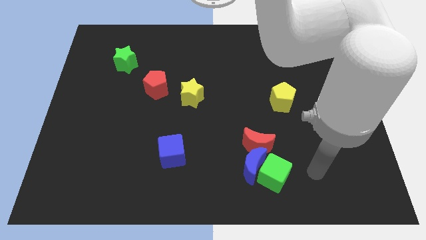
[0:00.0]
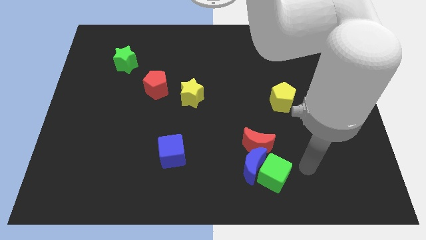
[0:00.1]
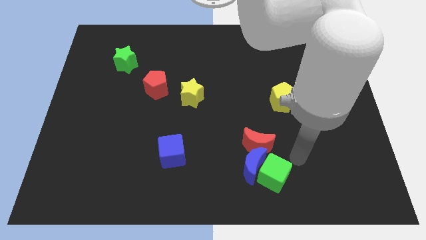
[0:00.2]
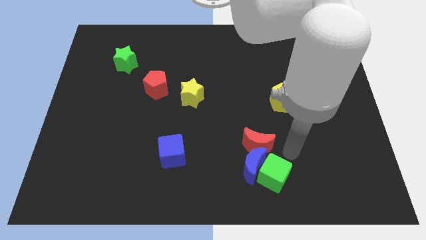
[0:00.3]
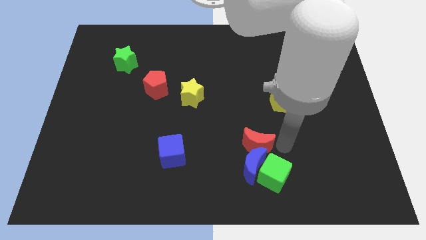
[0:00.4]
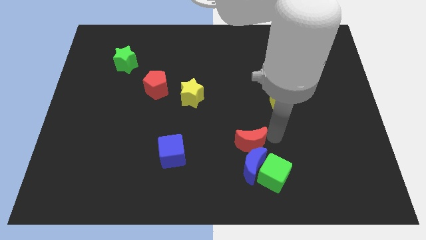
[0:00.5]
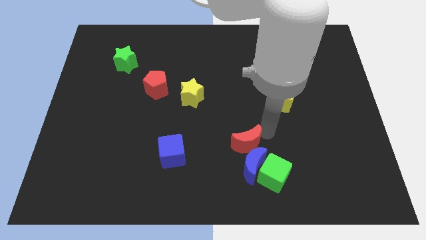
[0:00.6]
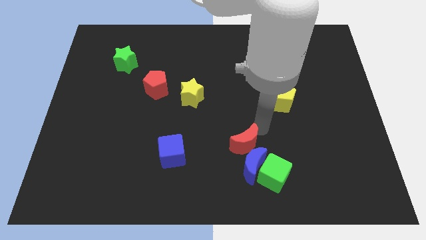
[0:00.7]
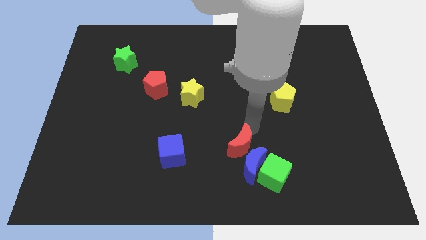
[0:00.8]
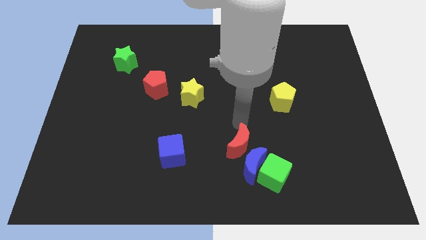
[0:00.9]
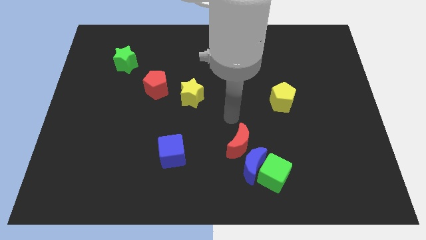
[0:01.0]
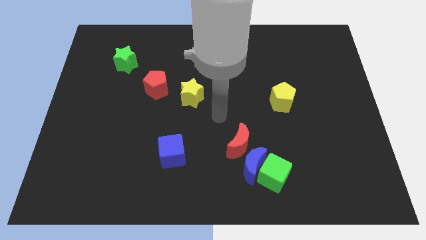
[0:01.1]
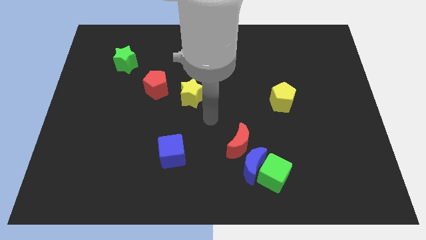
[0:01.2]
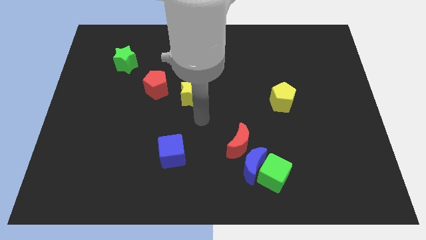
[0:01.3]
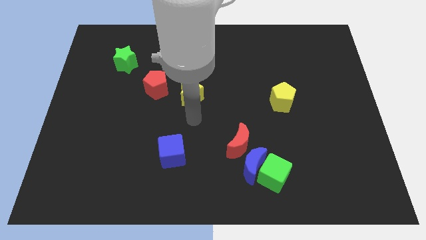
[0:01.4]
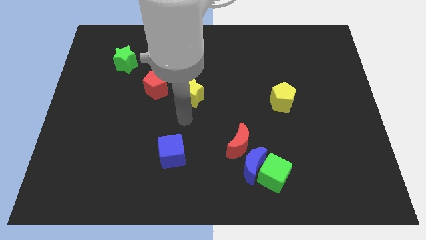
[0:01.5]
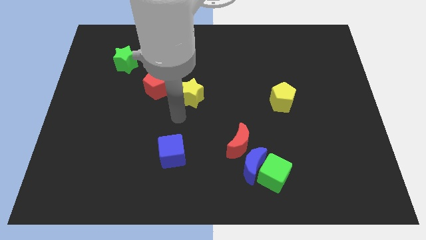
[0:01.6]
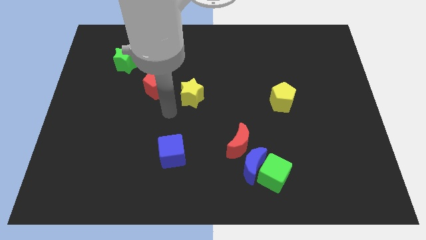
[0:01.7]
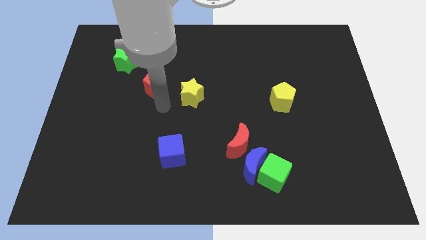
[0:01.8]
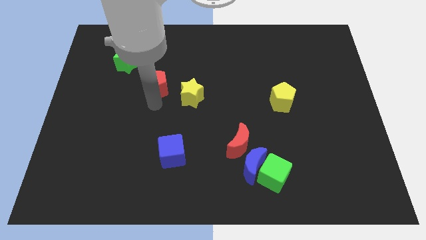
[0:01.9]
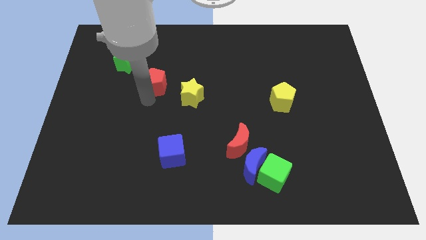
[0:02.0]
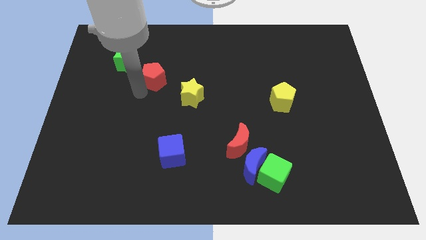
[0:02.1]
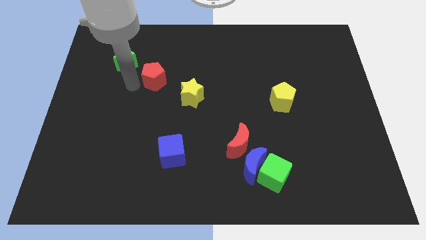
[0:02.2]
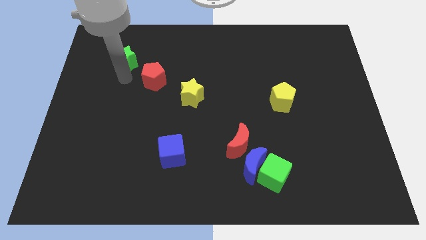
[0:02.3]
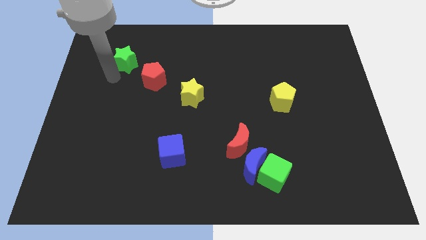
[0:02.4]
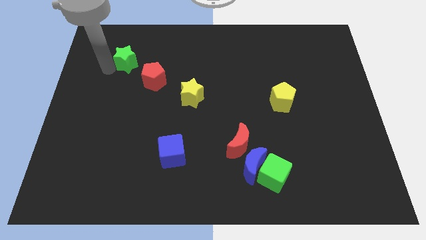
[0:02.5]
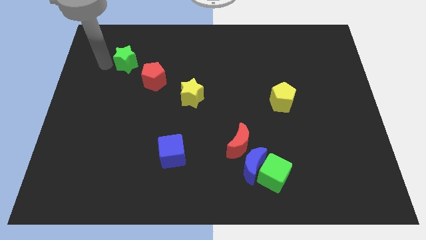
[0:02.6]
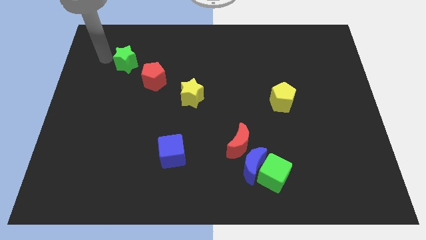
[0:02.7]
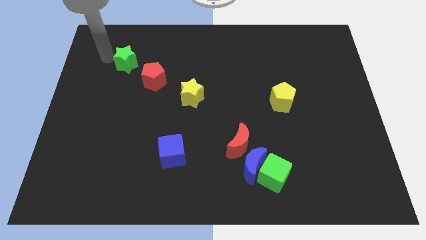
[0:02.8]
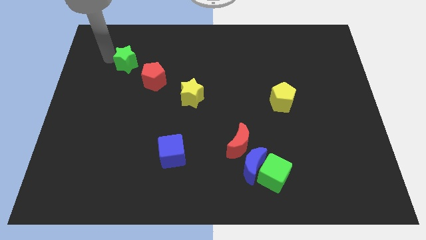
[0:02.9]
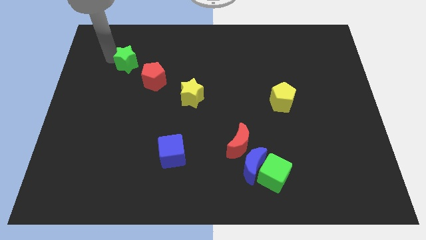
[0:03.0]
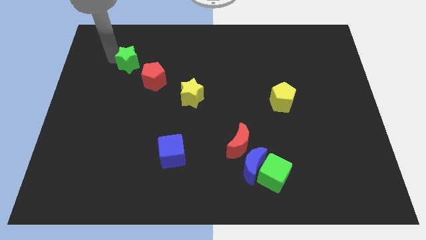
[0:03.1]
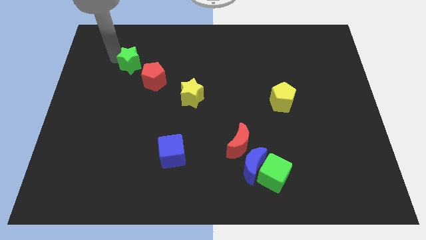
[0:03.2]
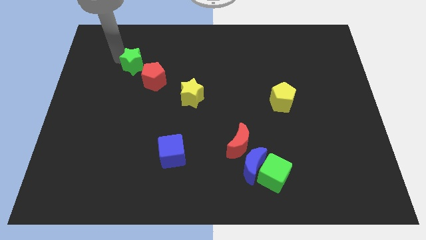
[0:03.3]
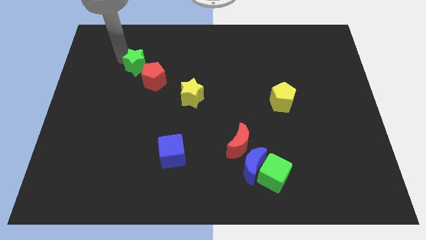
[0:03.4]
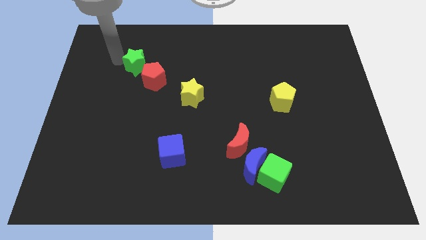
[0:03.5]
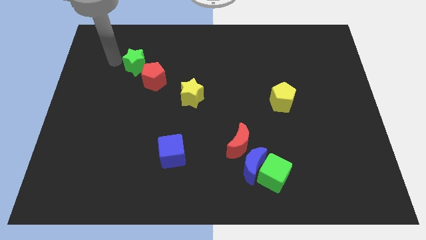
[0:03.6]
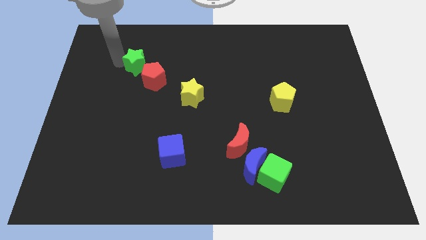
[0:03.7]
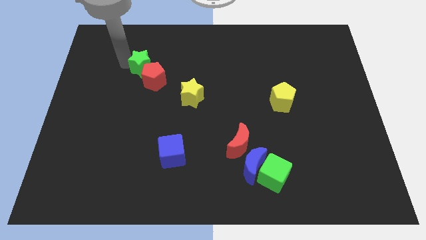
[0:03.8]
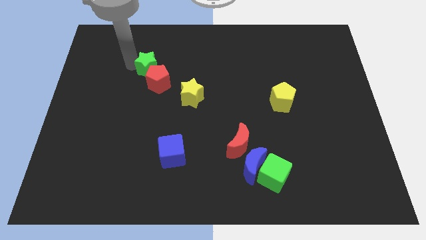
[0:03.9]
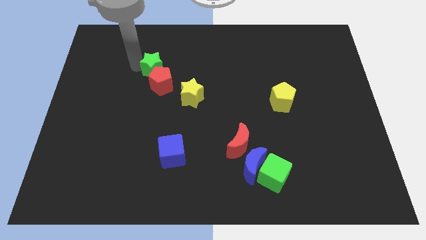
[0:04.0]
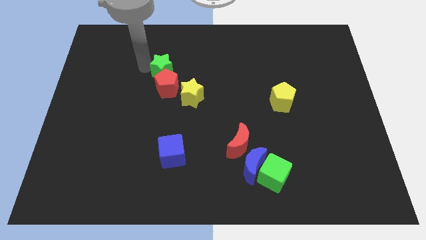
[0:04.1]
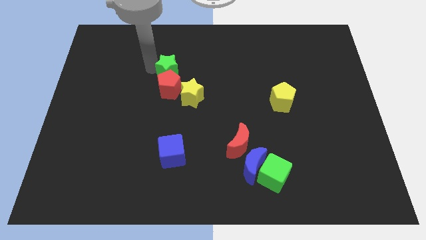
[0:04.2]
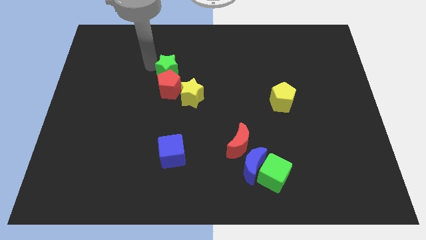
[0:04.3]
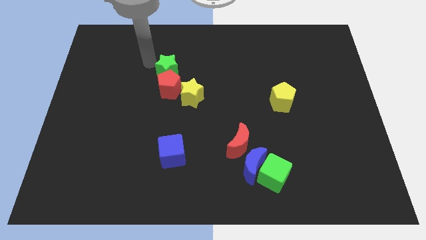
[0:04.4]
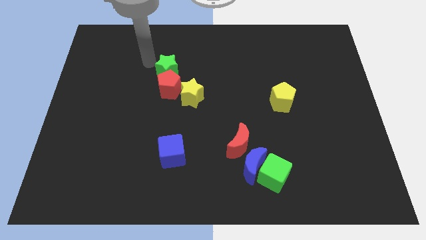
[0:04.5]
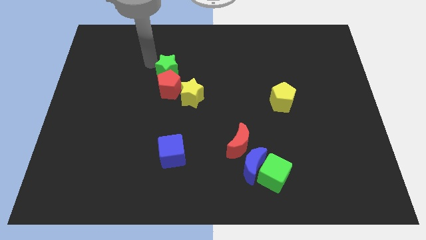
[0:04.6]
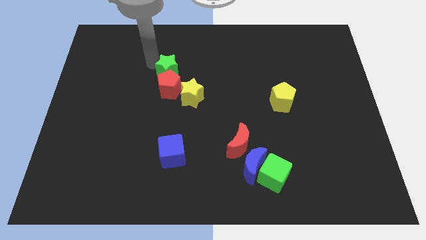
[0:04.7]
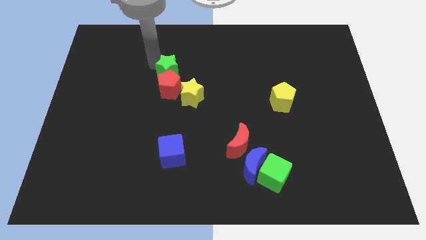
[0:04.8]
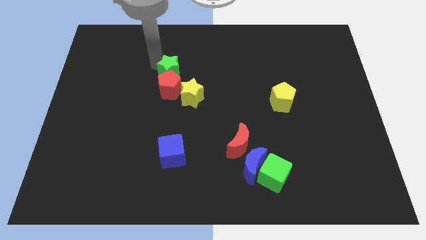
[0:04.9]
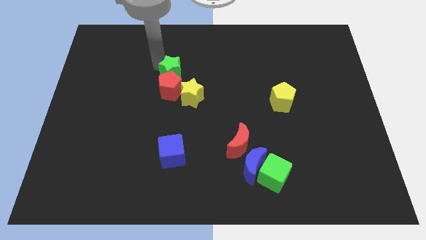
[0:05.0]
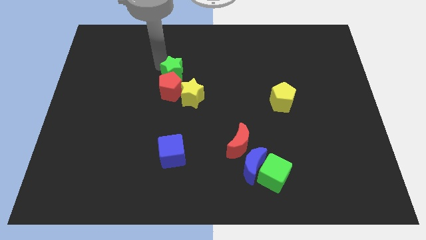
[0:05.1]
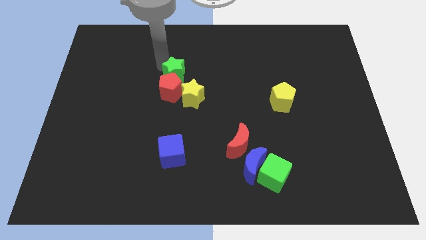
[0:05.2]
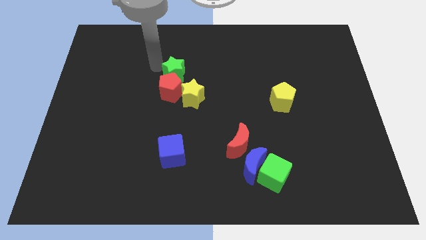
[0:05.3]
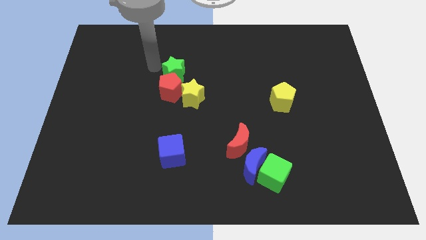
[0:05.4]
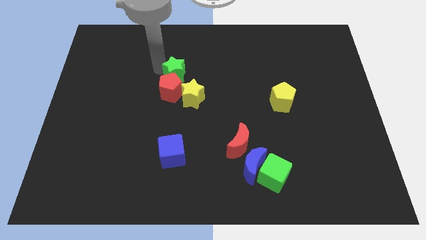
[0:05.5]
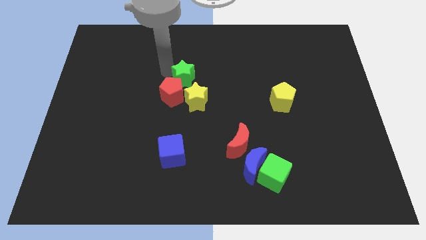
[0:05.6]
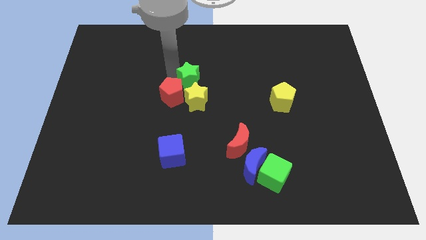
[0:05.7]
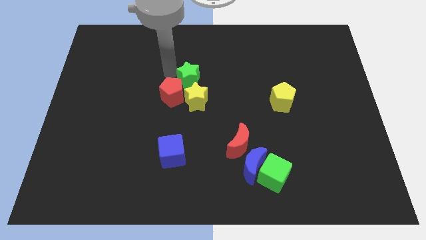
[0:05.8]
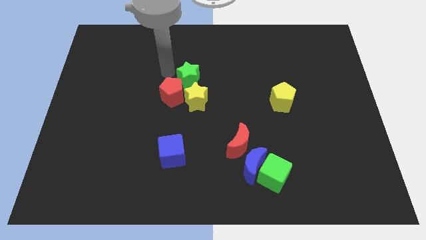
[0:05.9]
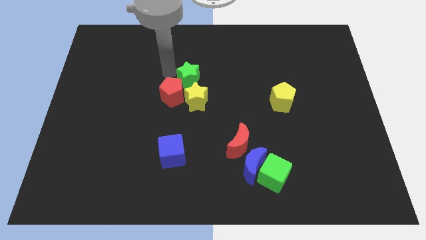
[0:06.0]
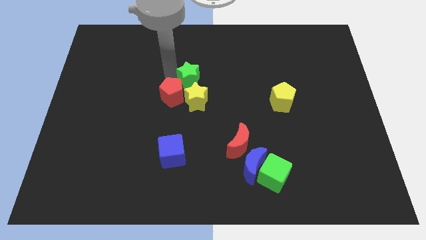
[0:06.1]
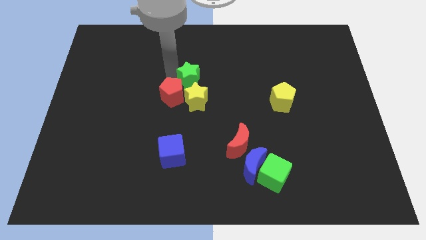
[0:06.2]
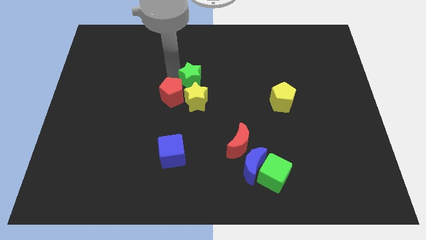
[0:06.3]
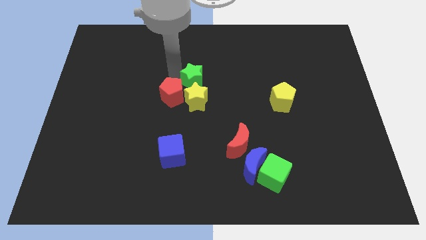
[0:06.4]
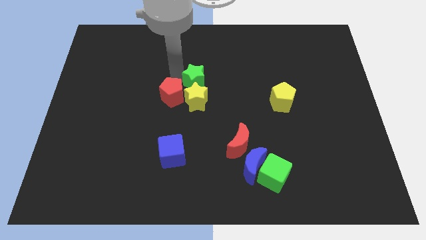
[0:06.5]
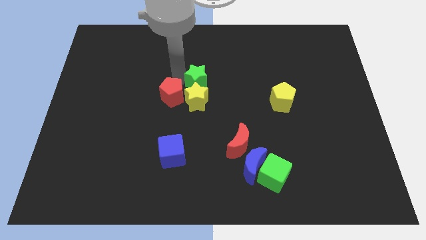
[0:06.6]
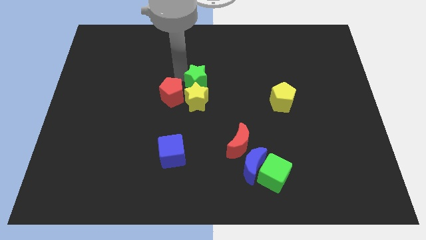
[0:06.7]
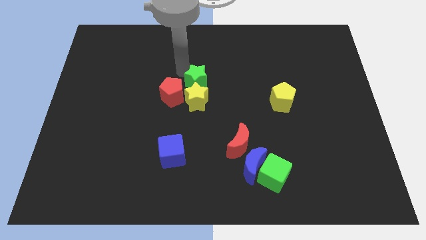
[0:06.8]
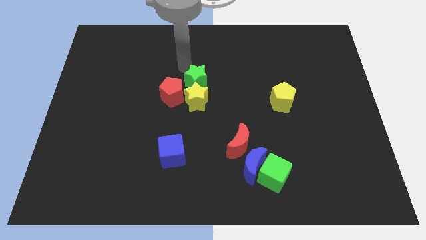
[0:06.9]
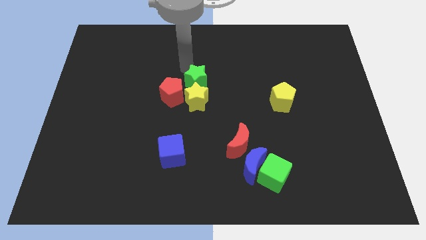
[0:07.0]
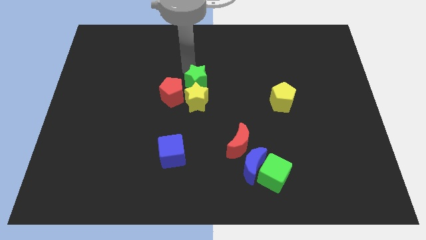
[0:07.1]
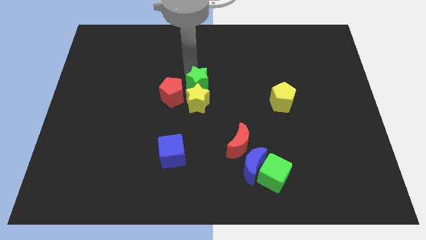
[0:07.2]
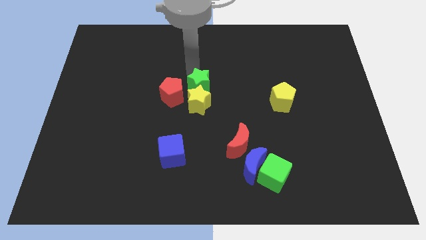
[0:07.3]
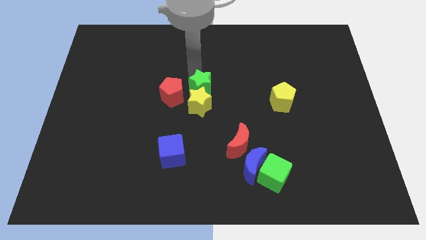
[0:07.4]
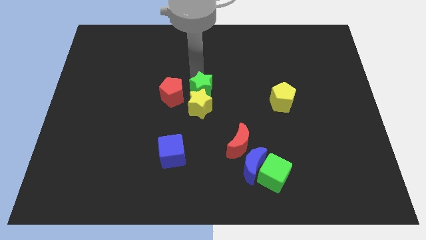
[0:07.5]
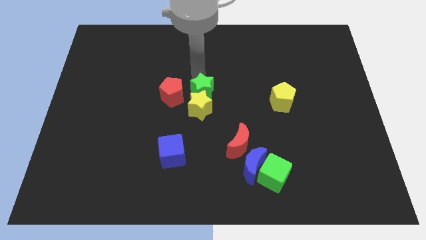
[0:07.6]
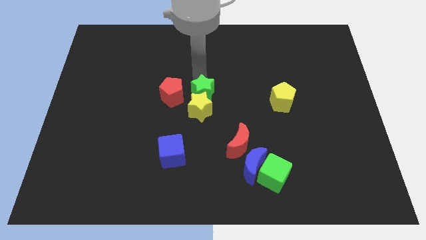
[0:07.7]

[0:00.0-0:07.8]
move the green star down and right diagonally
